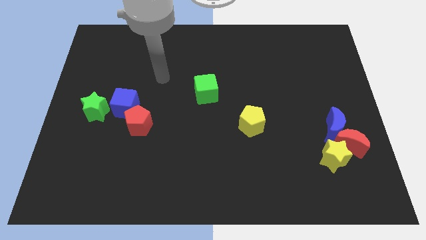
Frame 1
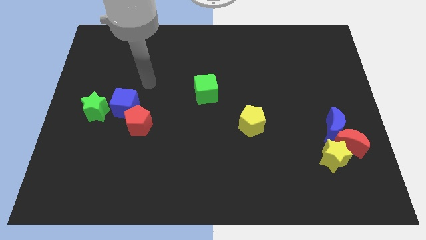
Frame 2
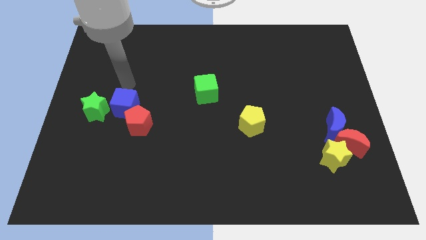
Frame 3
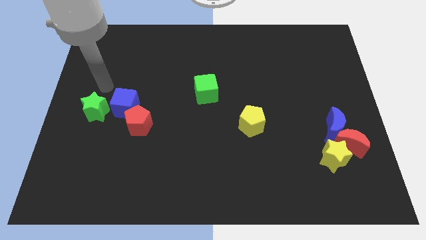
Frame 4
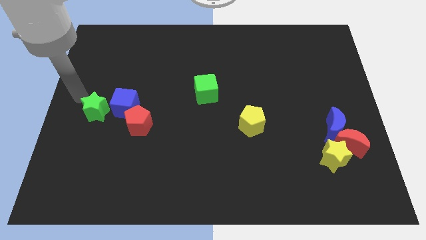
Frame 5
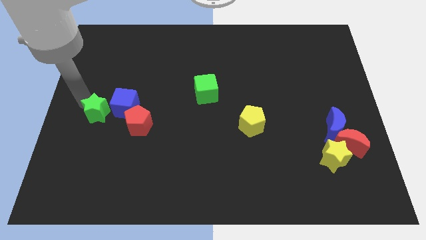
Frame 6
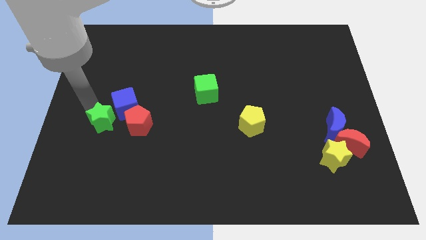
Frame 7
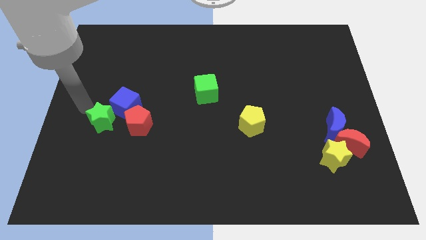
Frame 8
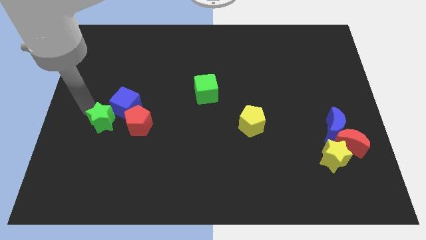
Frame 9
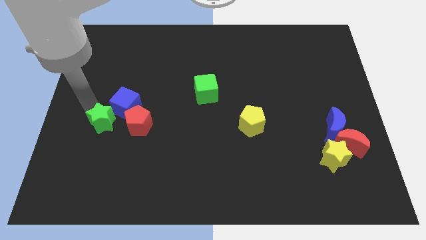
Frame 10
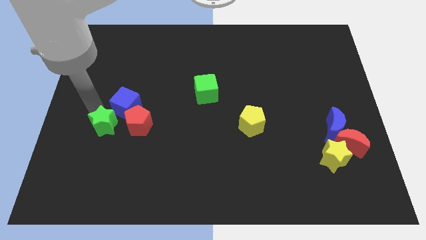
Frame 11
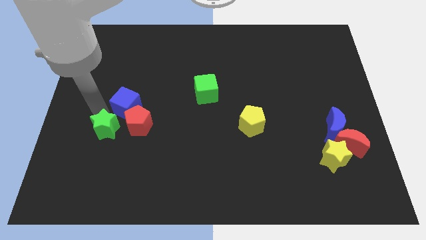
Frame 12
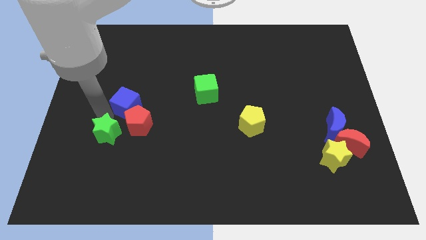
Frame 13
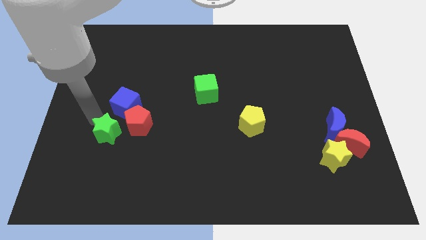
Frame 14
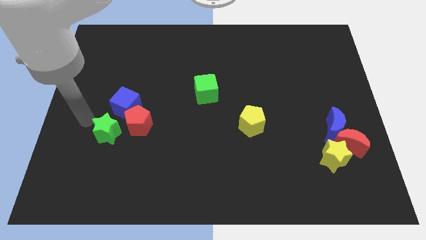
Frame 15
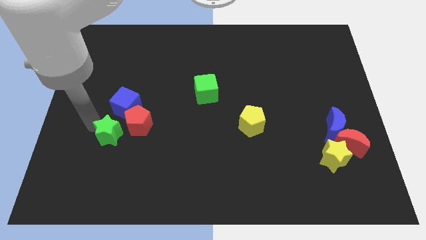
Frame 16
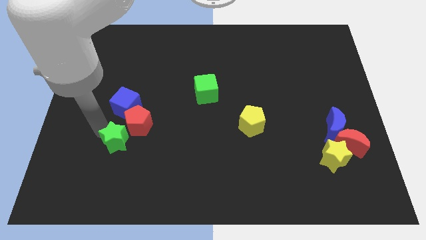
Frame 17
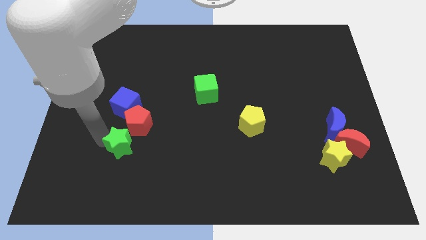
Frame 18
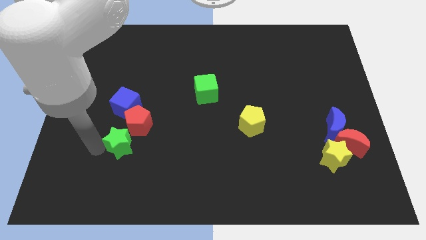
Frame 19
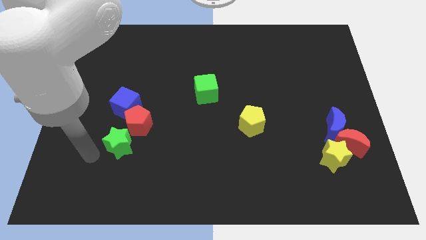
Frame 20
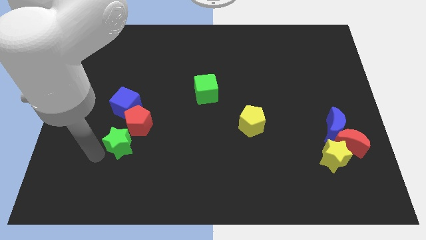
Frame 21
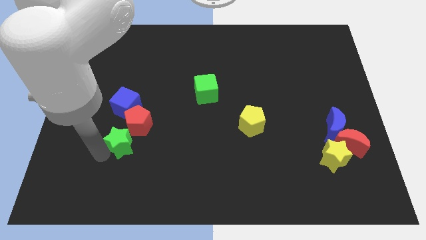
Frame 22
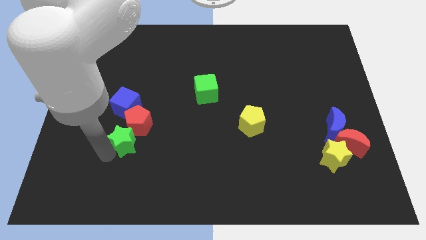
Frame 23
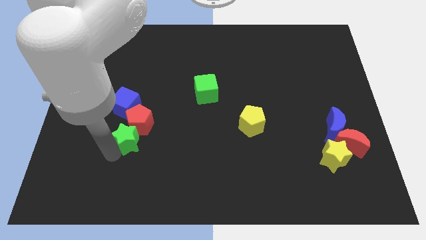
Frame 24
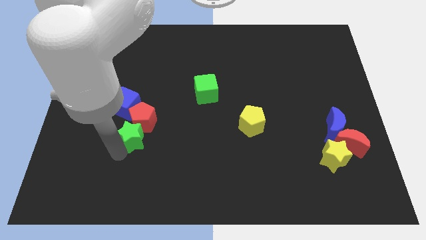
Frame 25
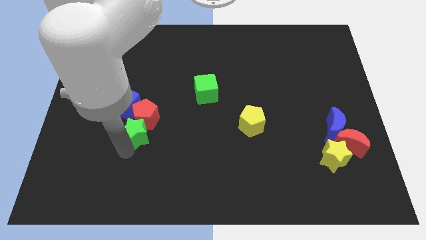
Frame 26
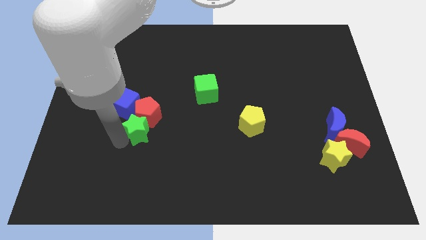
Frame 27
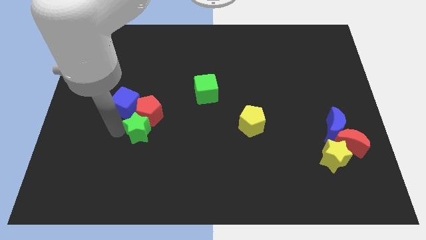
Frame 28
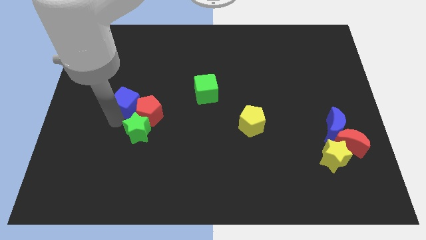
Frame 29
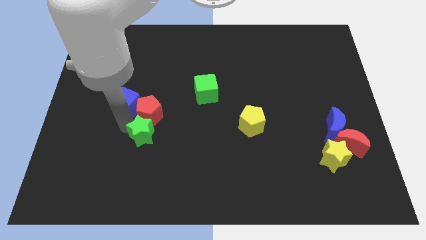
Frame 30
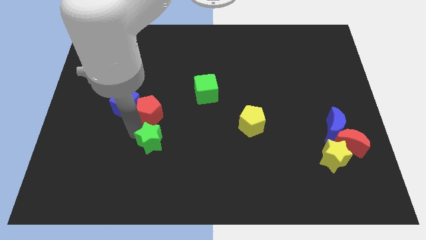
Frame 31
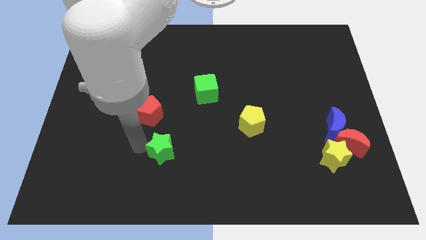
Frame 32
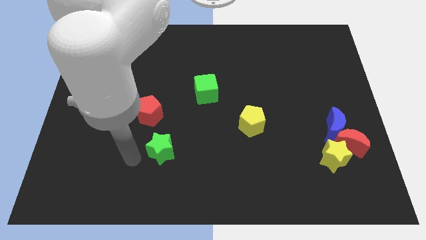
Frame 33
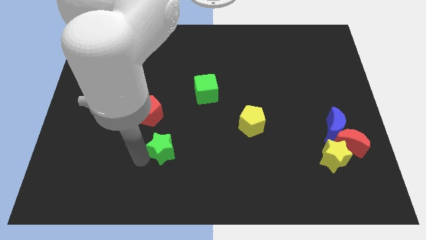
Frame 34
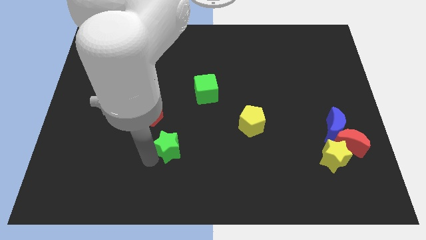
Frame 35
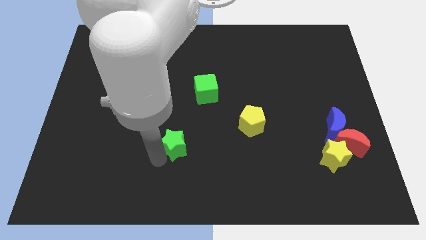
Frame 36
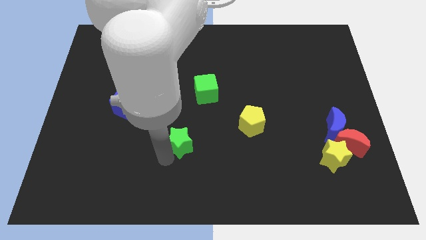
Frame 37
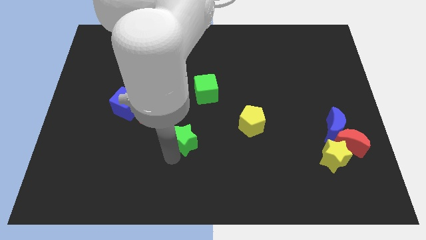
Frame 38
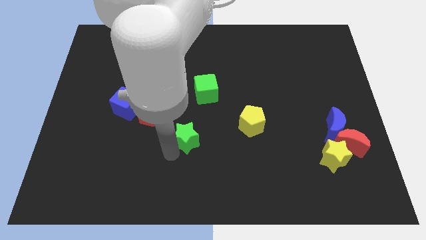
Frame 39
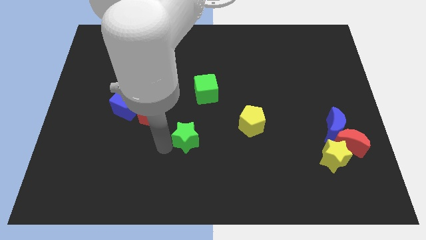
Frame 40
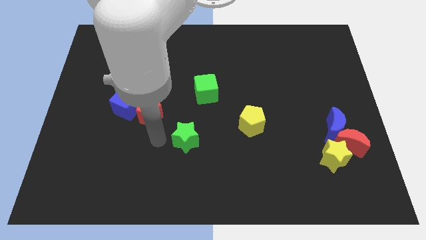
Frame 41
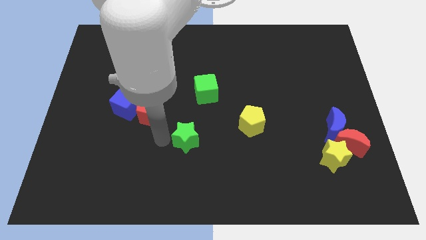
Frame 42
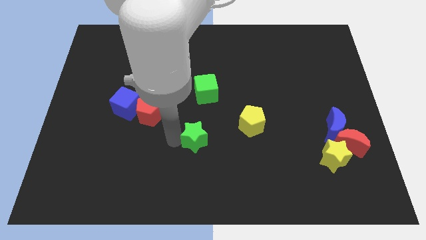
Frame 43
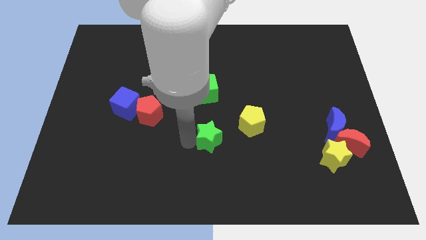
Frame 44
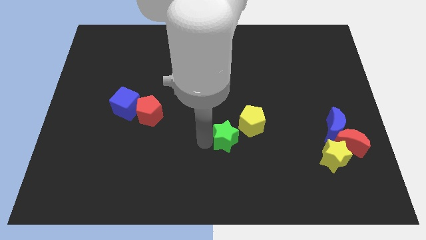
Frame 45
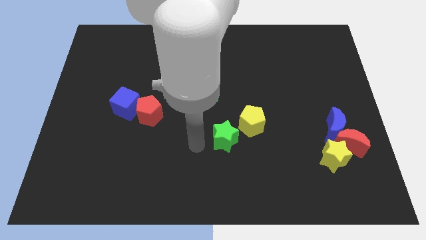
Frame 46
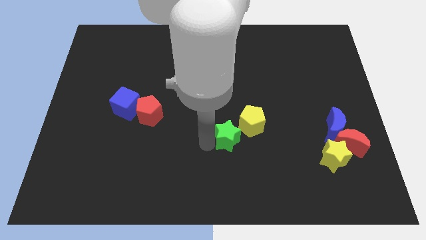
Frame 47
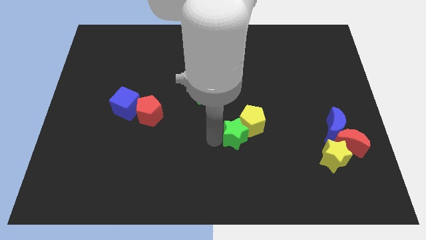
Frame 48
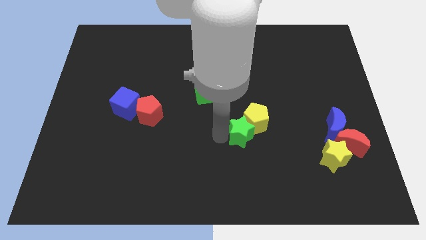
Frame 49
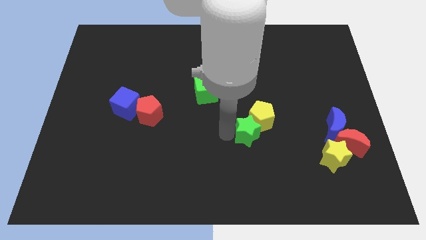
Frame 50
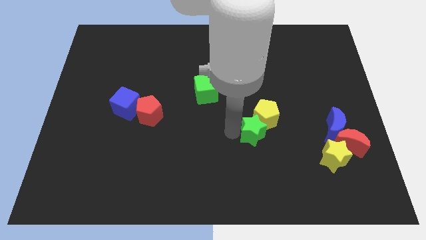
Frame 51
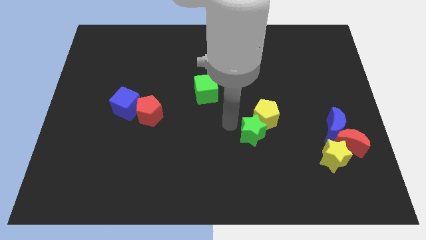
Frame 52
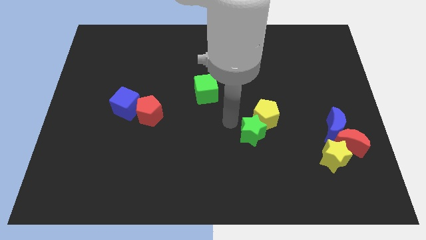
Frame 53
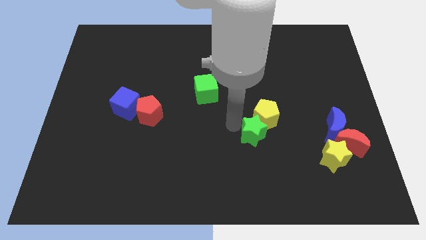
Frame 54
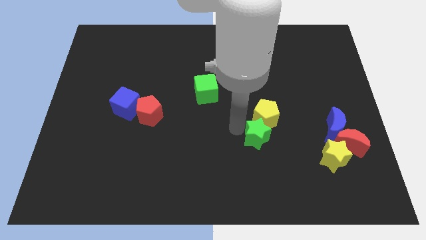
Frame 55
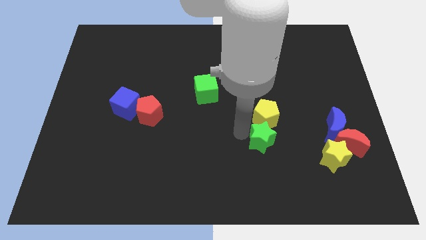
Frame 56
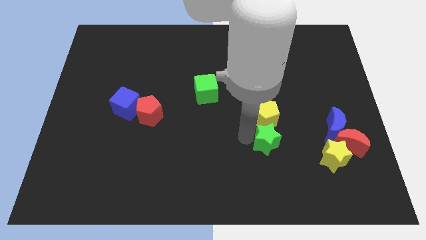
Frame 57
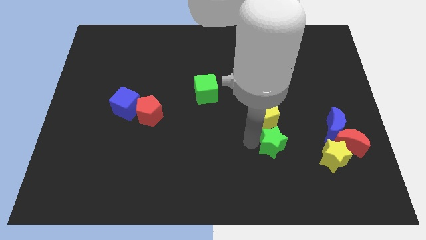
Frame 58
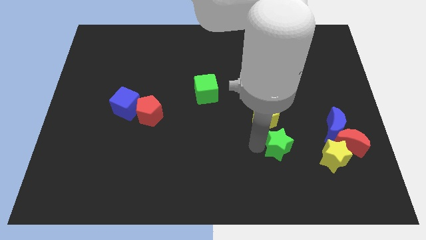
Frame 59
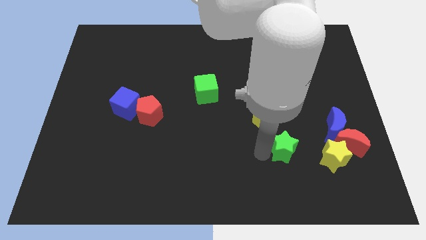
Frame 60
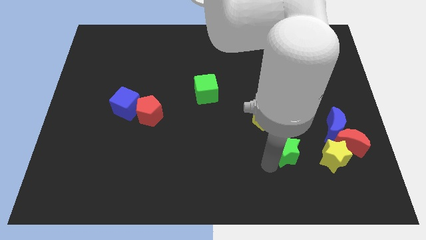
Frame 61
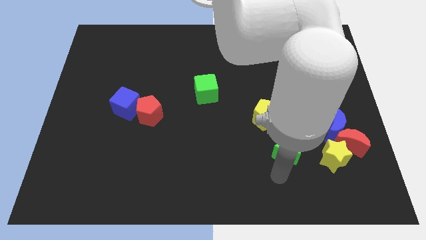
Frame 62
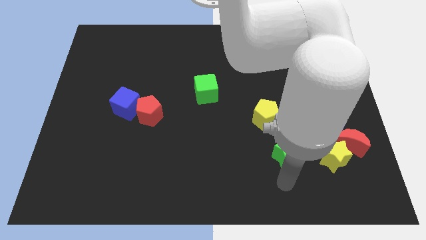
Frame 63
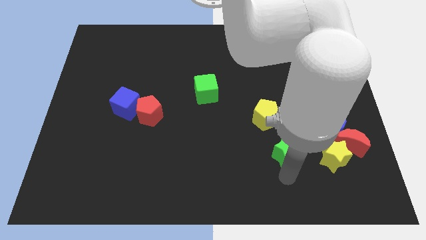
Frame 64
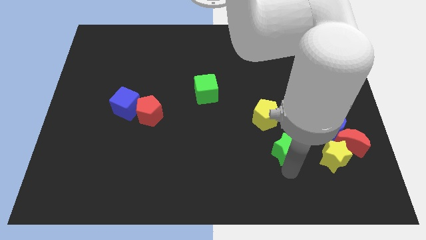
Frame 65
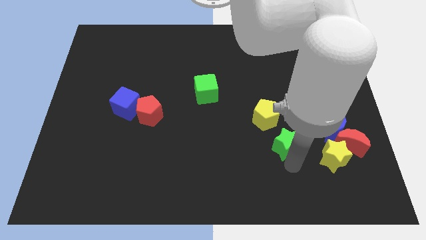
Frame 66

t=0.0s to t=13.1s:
put the green star just left of the blue moon
